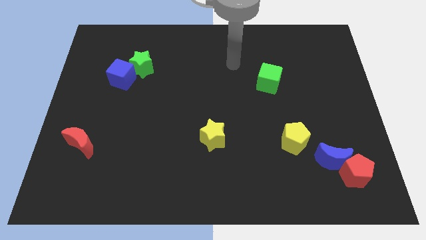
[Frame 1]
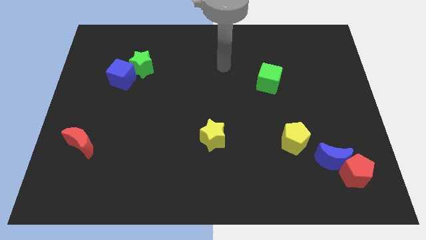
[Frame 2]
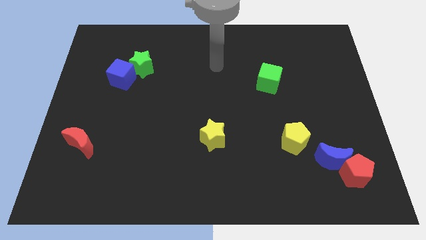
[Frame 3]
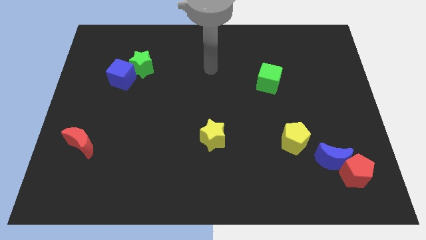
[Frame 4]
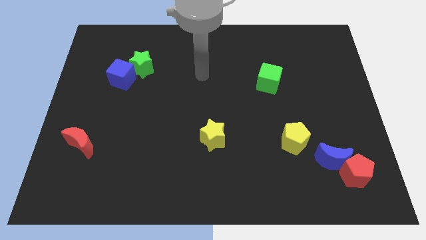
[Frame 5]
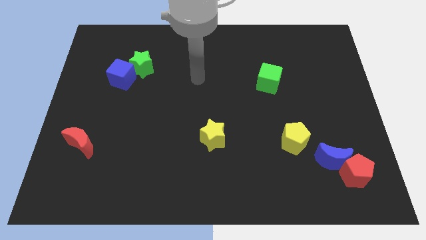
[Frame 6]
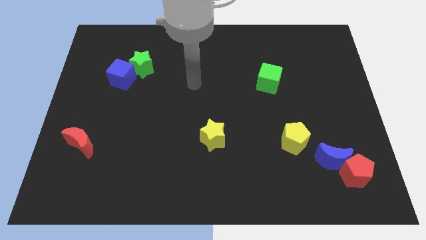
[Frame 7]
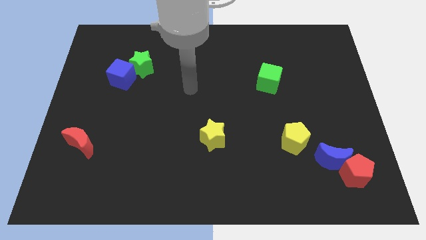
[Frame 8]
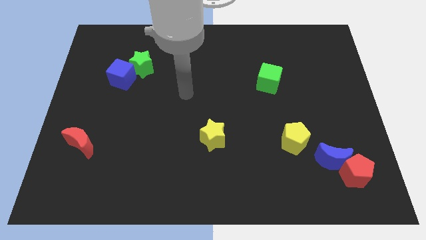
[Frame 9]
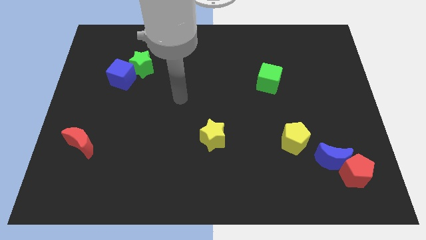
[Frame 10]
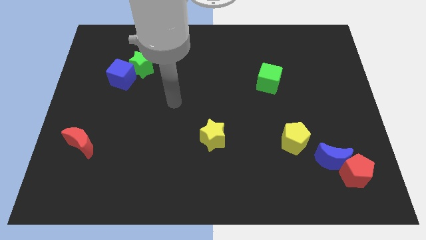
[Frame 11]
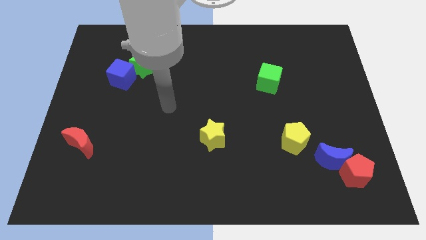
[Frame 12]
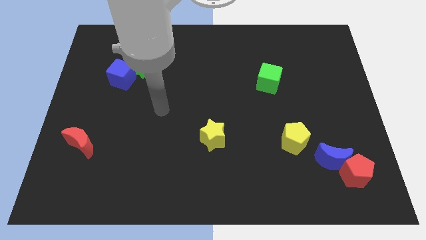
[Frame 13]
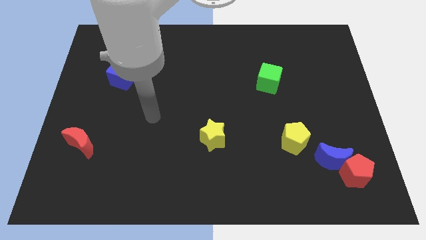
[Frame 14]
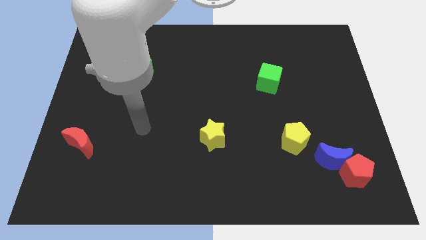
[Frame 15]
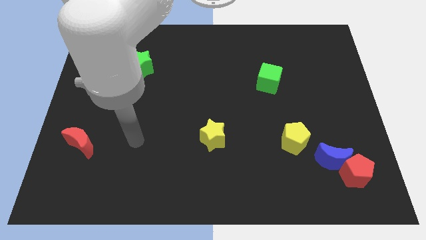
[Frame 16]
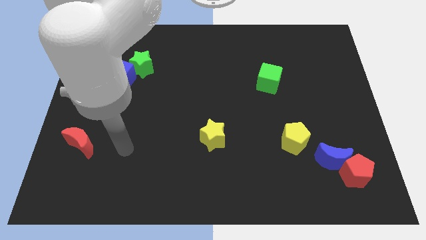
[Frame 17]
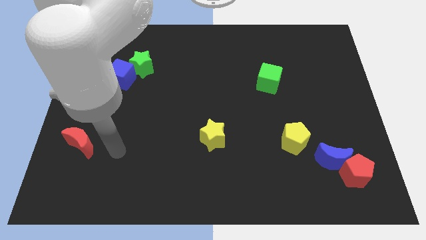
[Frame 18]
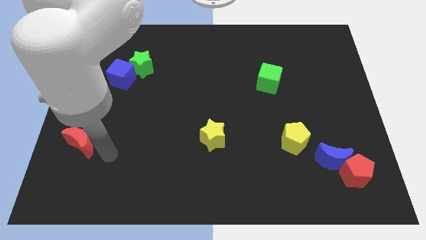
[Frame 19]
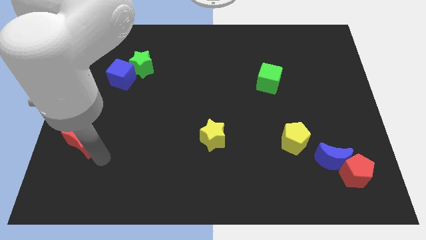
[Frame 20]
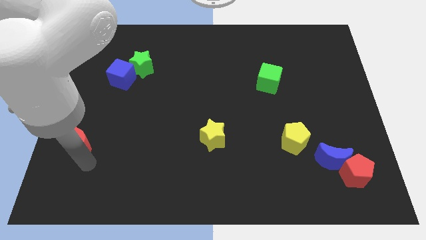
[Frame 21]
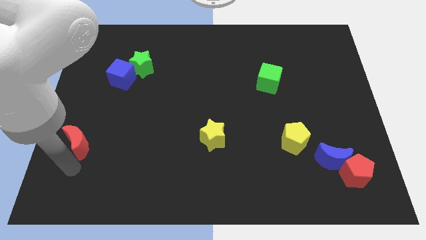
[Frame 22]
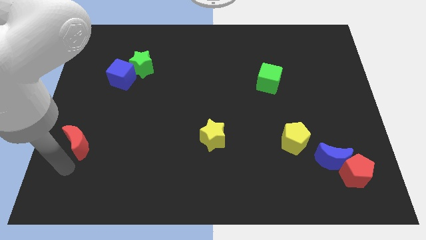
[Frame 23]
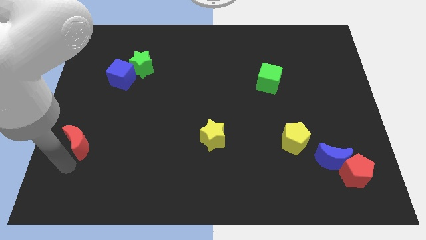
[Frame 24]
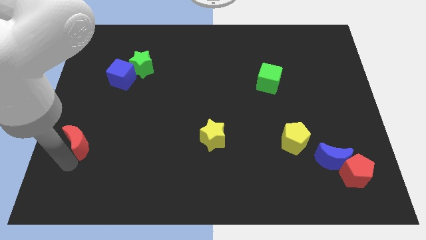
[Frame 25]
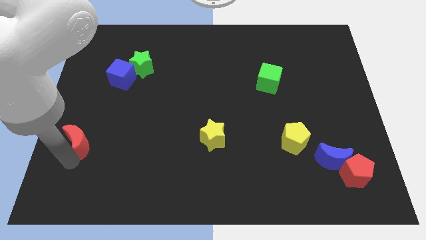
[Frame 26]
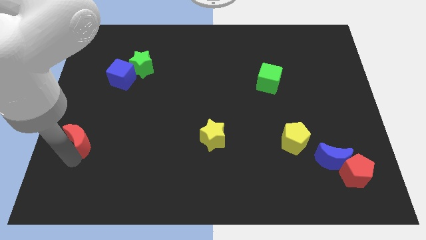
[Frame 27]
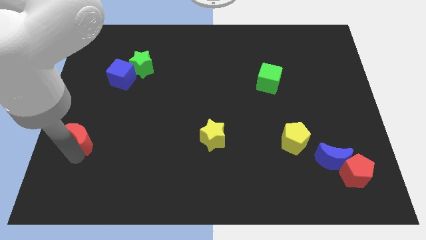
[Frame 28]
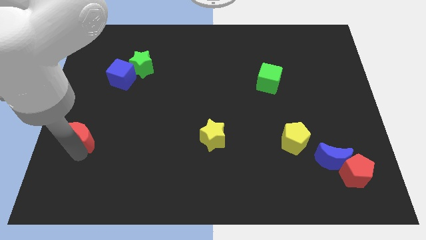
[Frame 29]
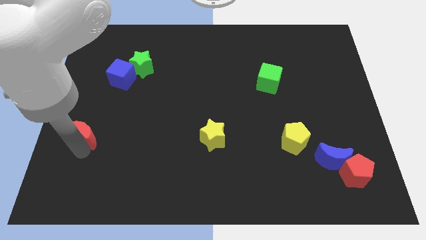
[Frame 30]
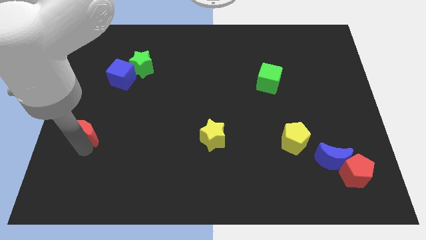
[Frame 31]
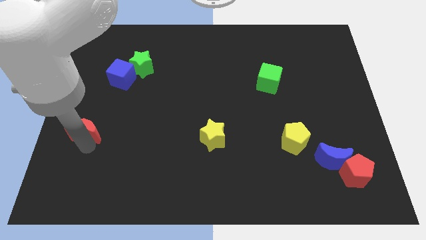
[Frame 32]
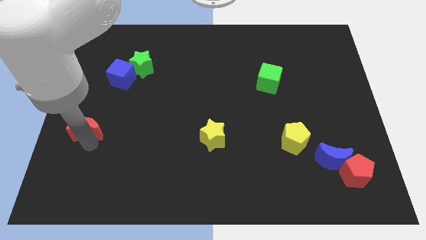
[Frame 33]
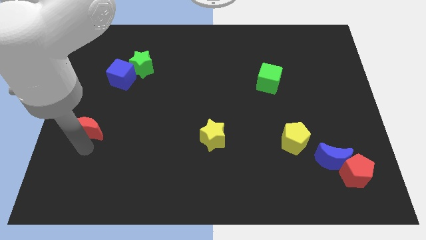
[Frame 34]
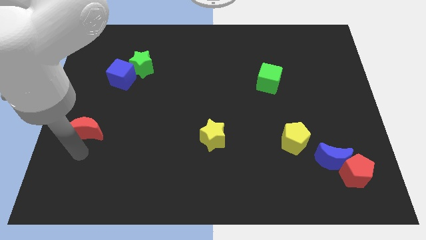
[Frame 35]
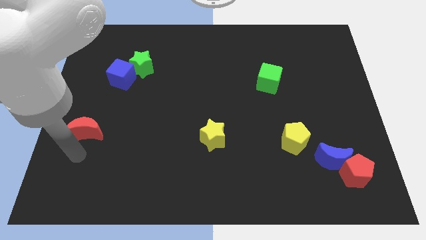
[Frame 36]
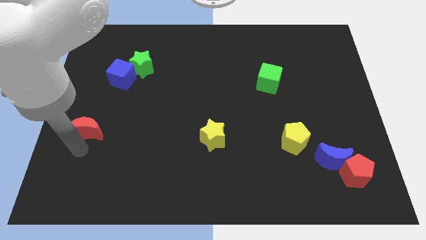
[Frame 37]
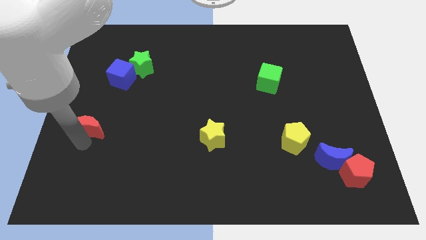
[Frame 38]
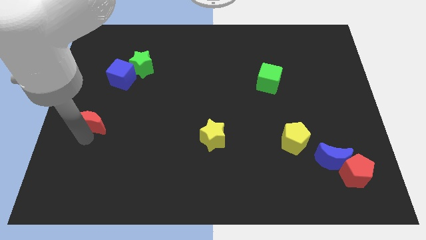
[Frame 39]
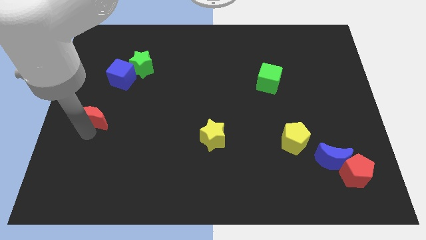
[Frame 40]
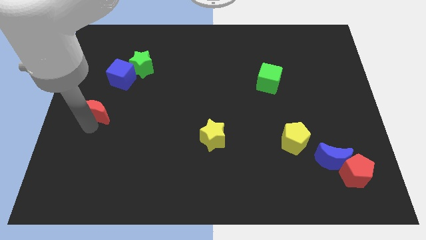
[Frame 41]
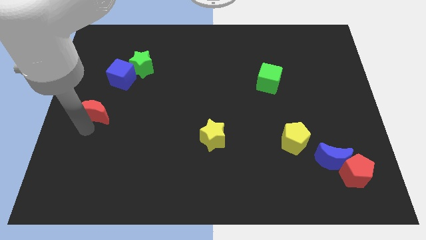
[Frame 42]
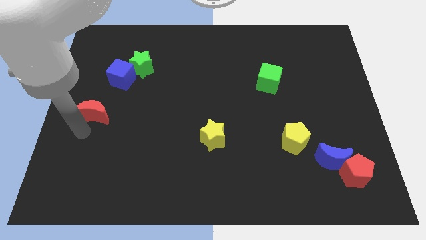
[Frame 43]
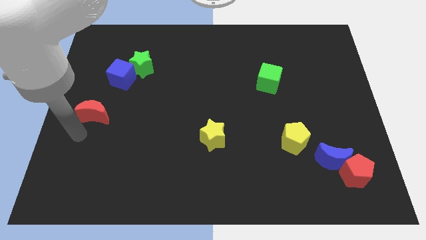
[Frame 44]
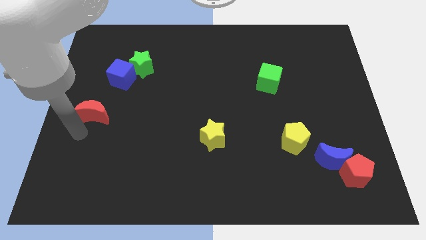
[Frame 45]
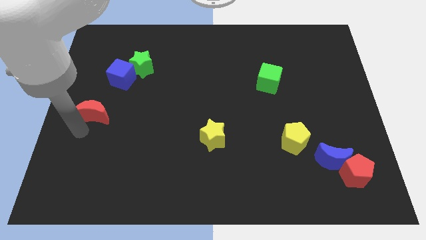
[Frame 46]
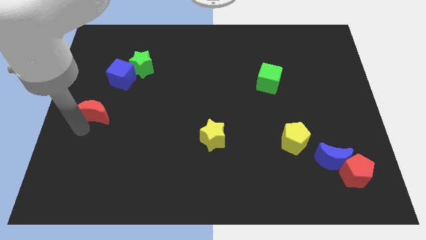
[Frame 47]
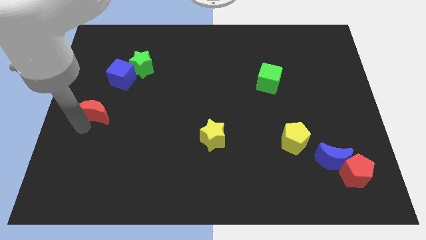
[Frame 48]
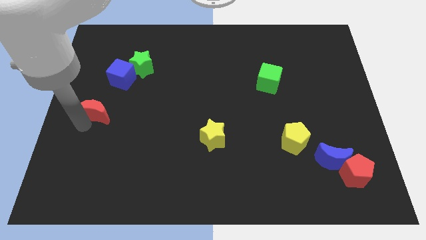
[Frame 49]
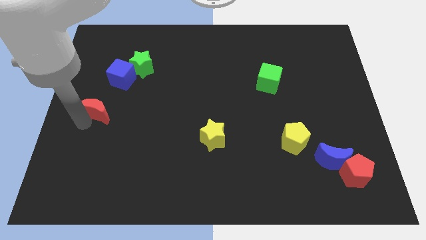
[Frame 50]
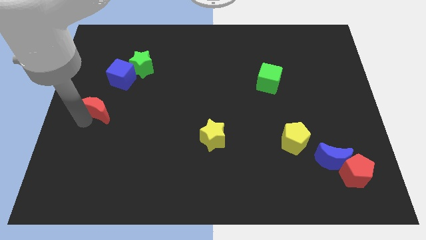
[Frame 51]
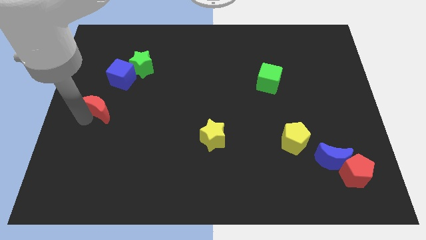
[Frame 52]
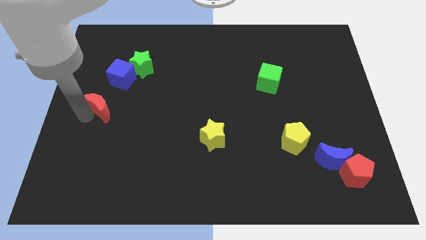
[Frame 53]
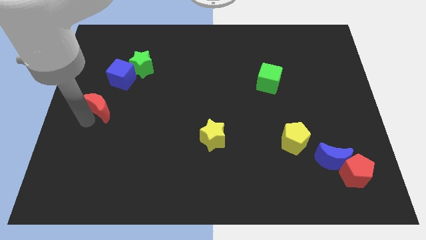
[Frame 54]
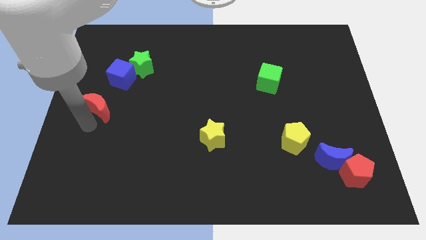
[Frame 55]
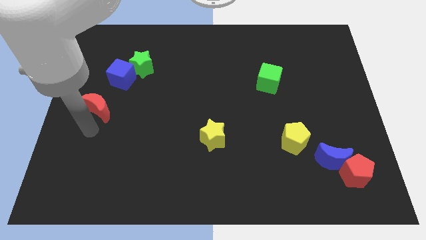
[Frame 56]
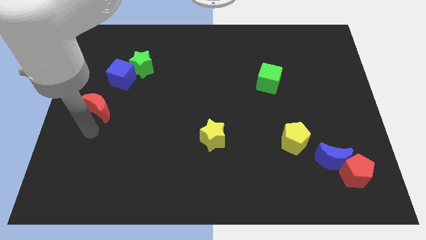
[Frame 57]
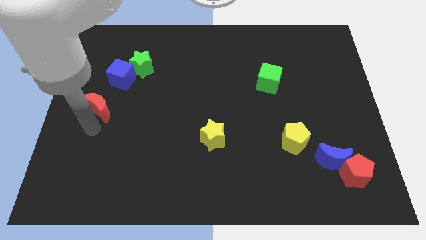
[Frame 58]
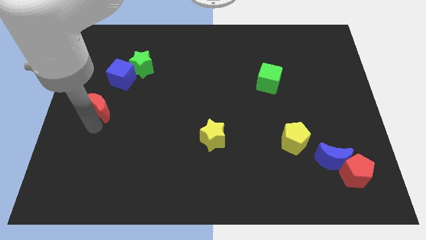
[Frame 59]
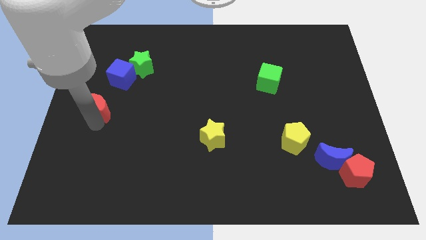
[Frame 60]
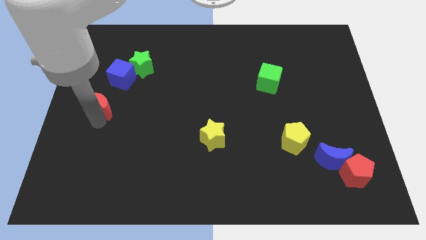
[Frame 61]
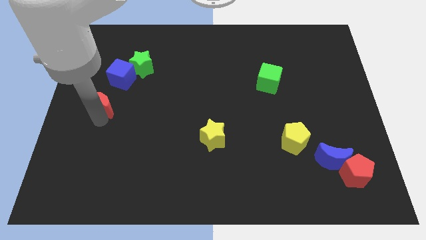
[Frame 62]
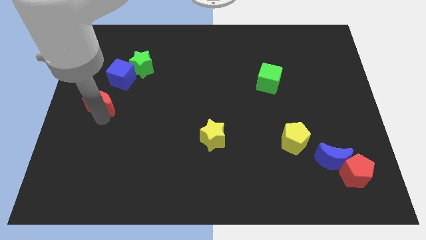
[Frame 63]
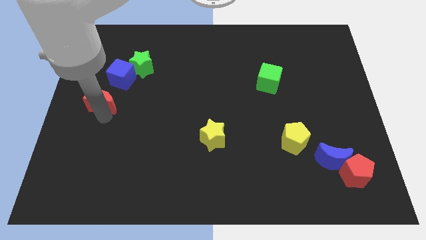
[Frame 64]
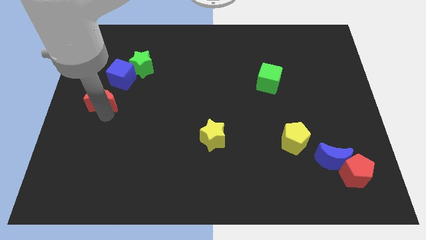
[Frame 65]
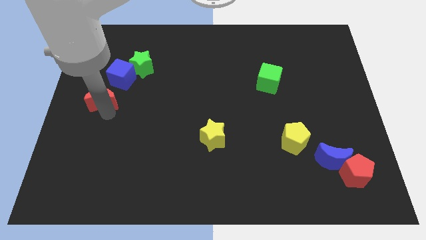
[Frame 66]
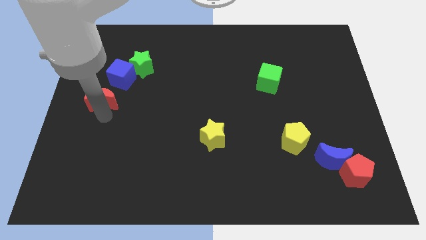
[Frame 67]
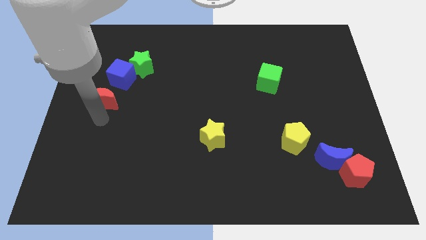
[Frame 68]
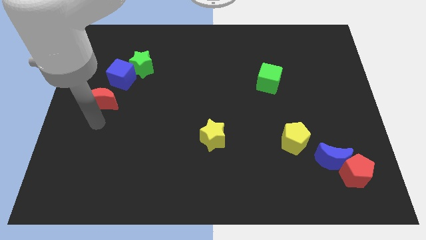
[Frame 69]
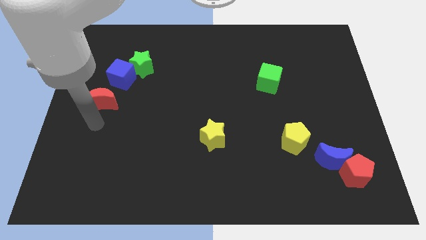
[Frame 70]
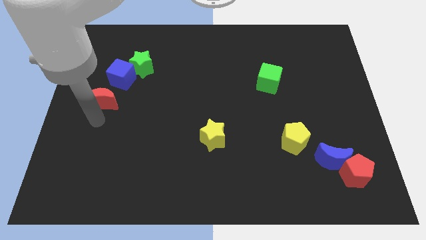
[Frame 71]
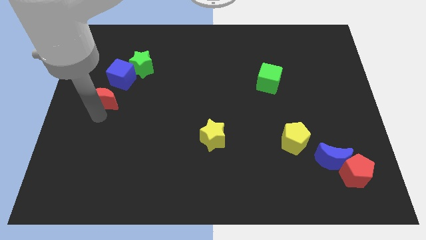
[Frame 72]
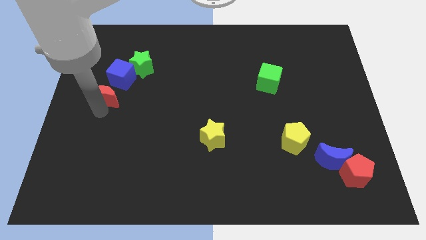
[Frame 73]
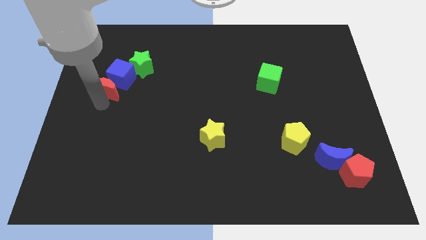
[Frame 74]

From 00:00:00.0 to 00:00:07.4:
push the red moon close to the blue cube
